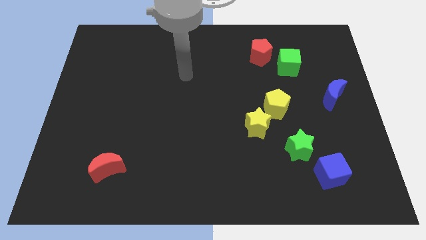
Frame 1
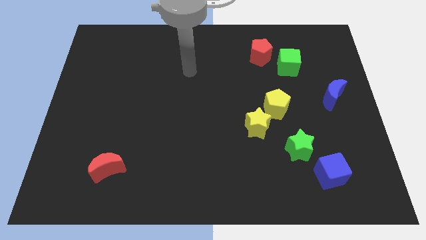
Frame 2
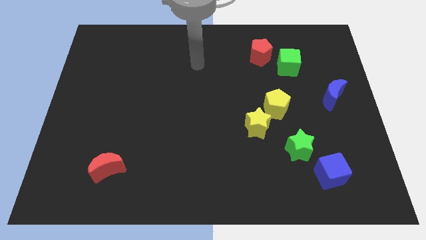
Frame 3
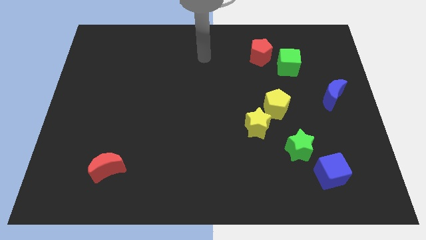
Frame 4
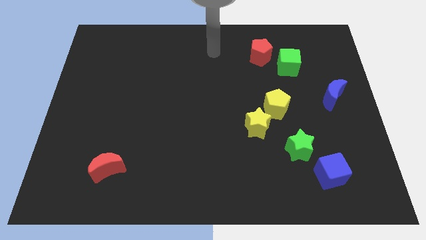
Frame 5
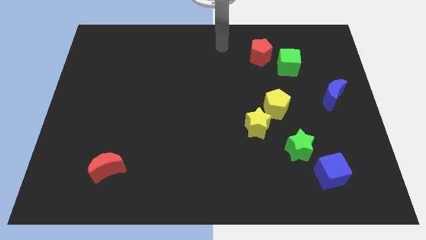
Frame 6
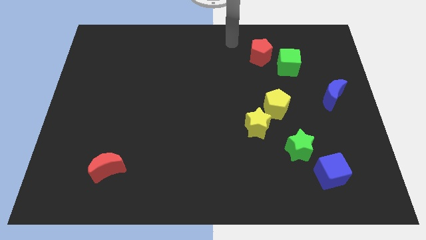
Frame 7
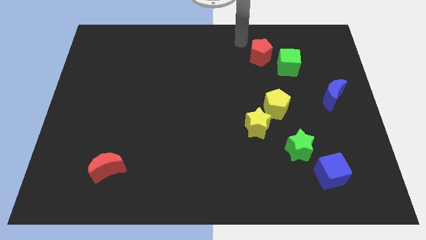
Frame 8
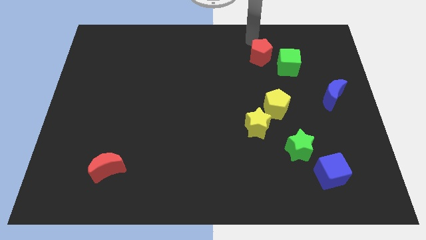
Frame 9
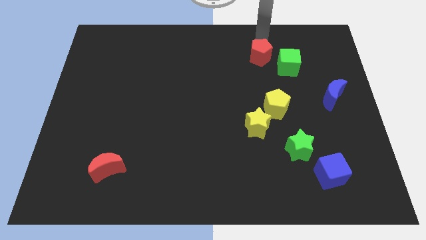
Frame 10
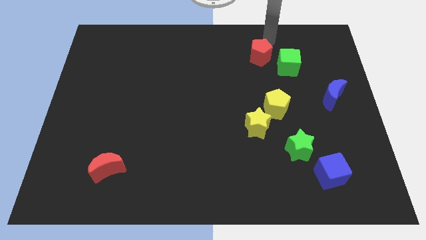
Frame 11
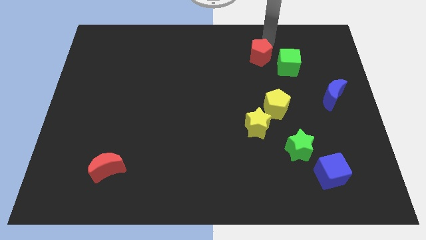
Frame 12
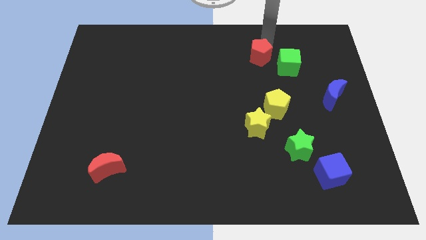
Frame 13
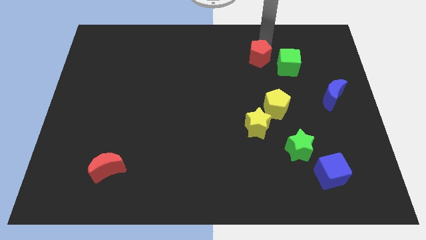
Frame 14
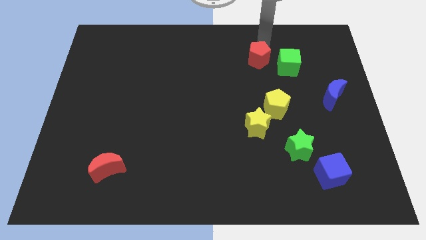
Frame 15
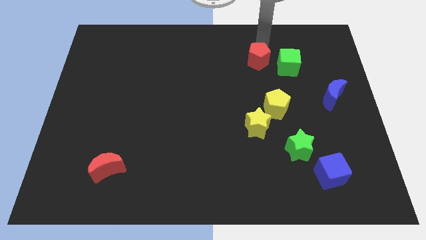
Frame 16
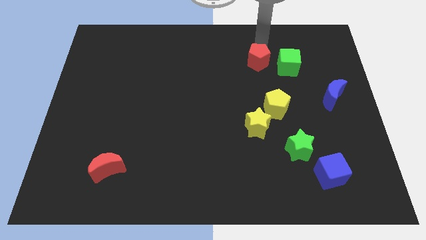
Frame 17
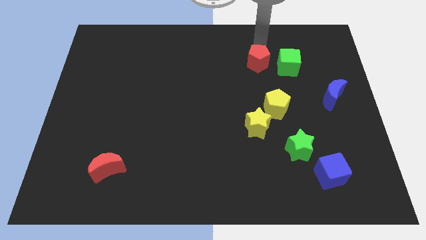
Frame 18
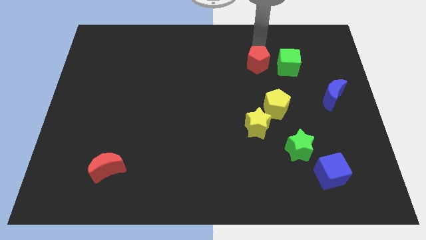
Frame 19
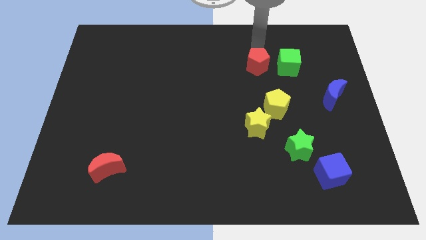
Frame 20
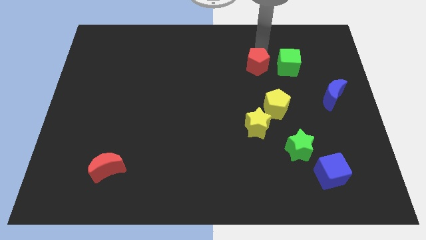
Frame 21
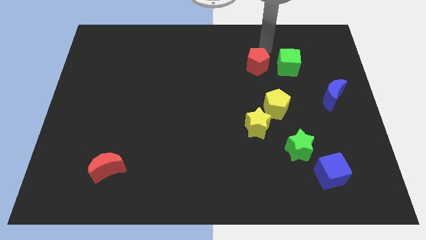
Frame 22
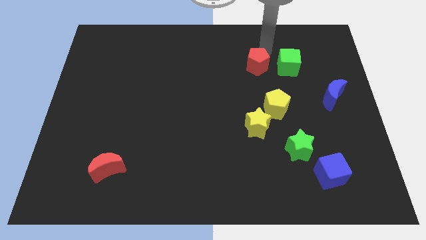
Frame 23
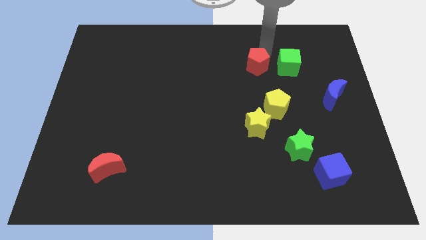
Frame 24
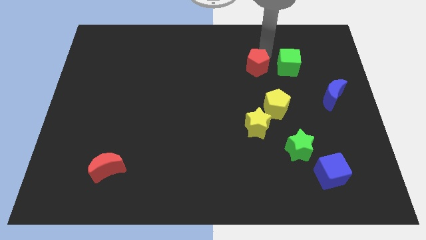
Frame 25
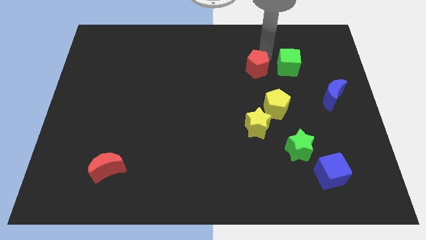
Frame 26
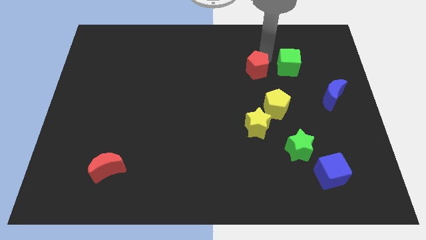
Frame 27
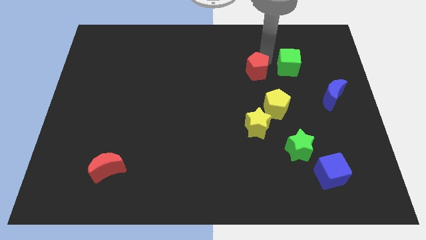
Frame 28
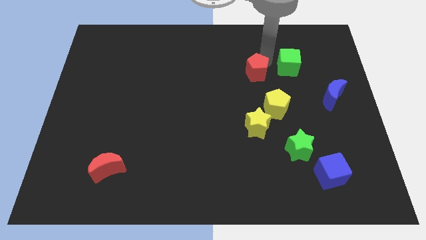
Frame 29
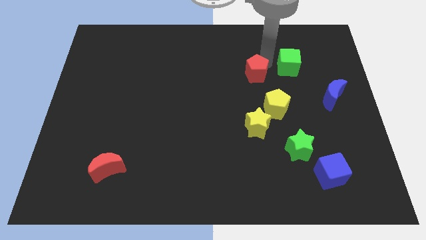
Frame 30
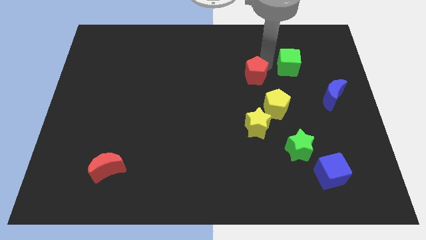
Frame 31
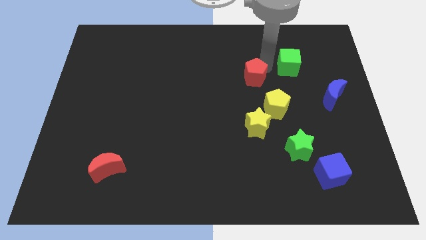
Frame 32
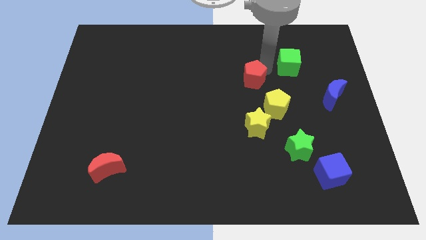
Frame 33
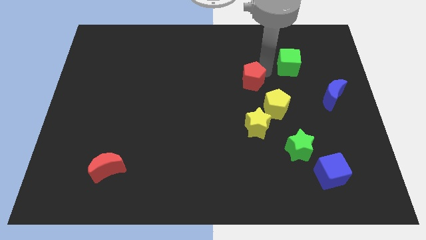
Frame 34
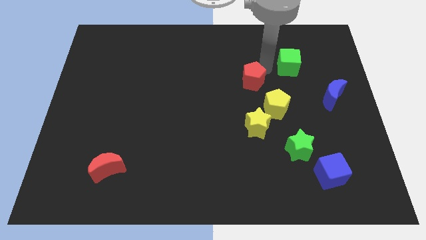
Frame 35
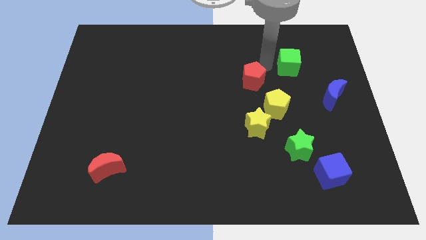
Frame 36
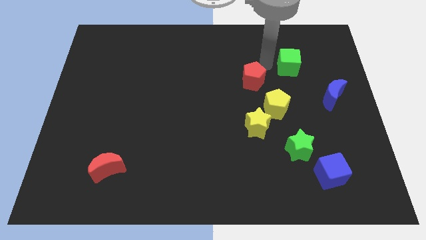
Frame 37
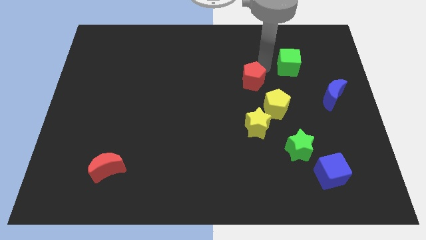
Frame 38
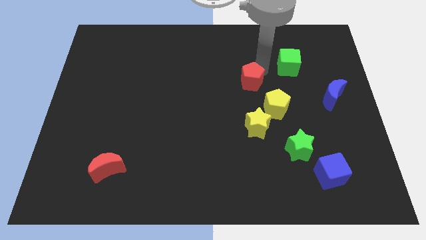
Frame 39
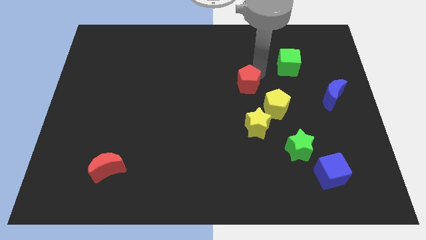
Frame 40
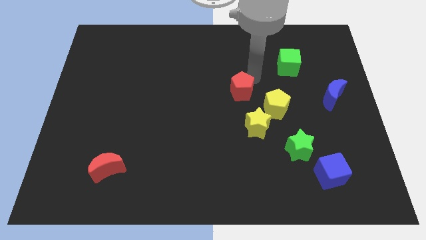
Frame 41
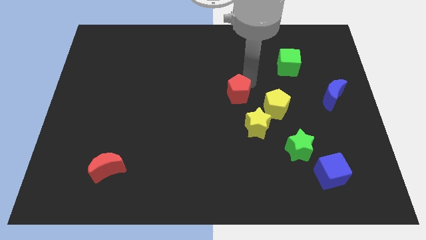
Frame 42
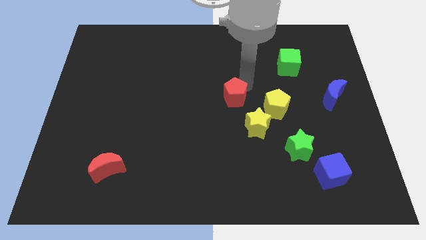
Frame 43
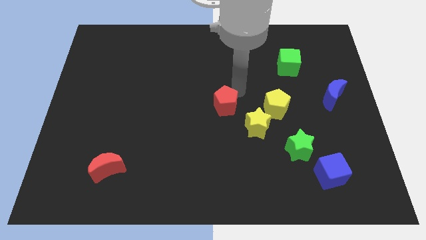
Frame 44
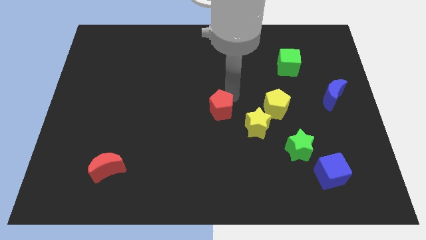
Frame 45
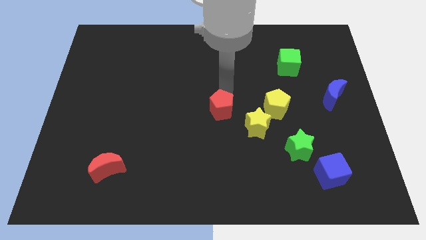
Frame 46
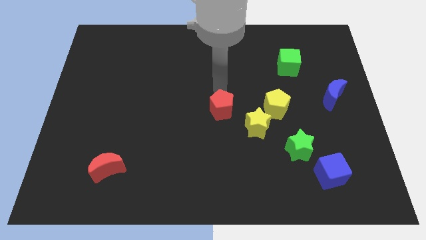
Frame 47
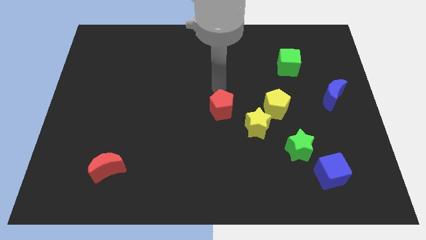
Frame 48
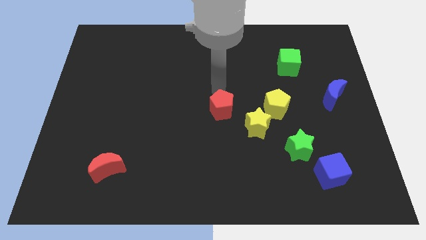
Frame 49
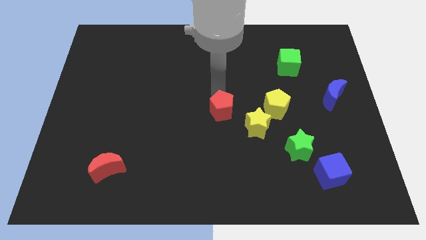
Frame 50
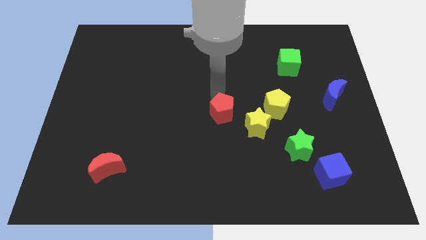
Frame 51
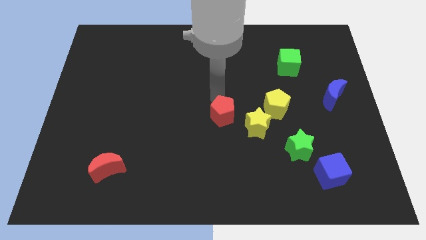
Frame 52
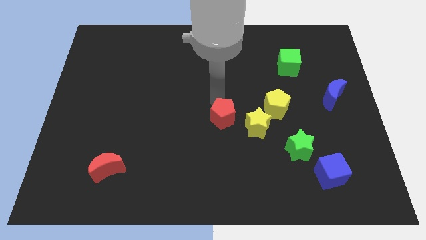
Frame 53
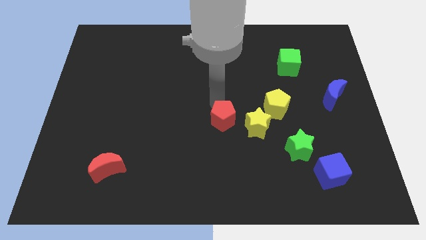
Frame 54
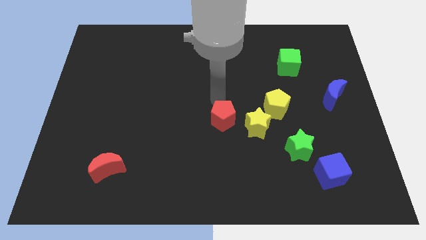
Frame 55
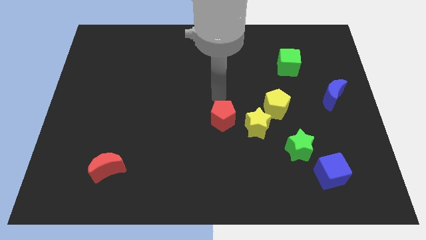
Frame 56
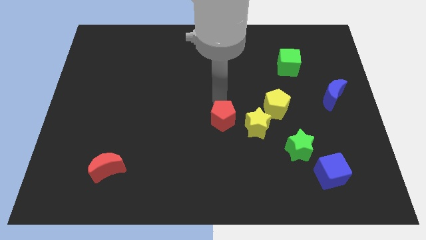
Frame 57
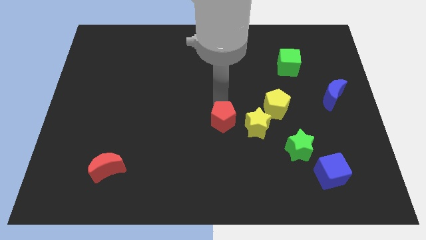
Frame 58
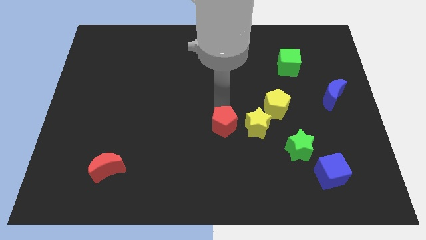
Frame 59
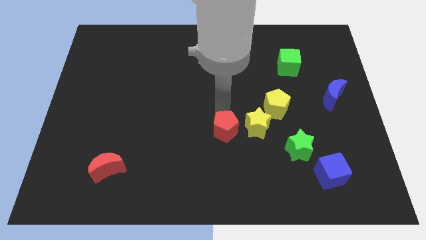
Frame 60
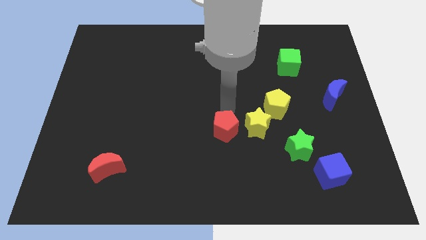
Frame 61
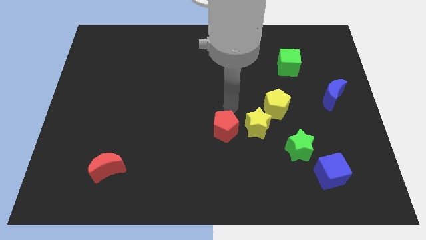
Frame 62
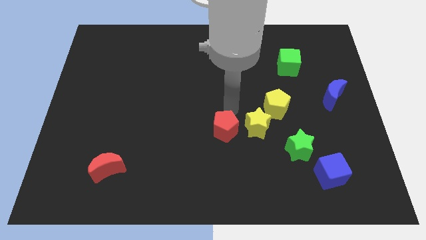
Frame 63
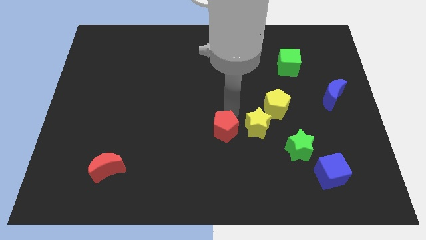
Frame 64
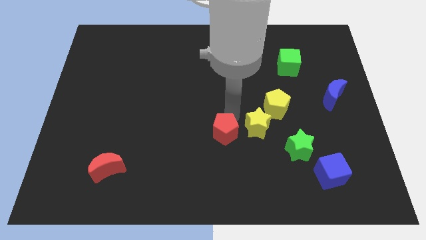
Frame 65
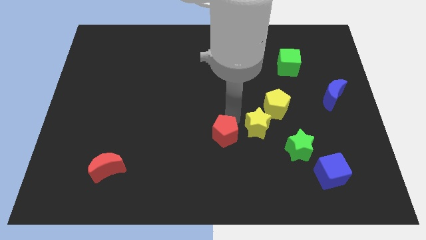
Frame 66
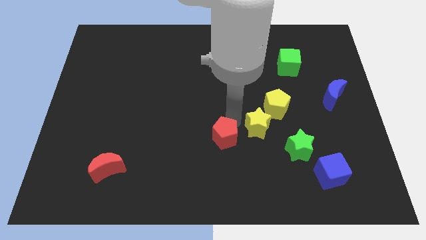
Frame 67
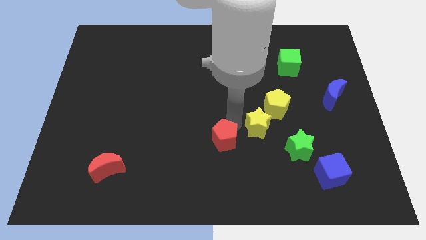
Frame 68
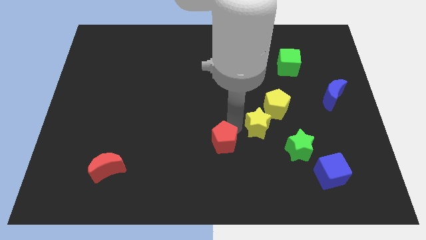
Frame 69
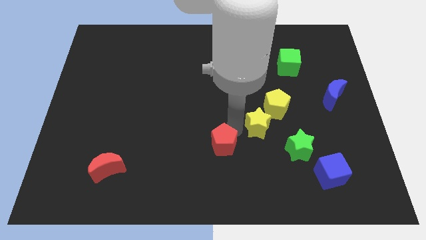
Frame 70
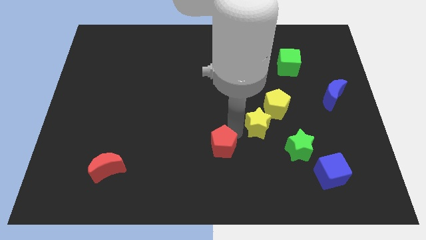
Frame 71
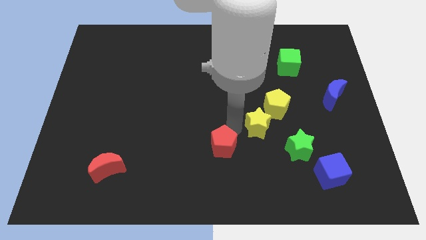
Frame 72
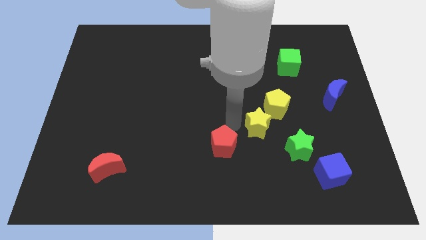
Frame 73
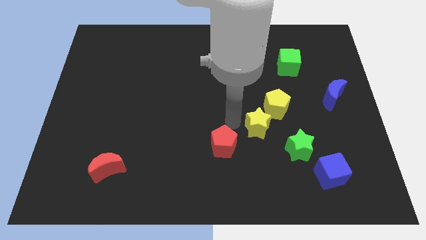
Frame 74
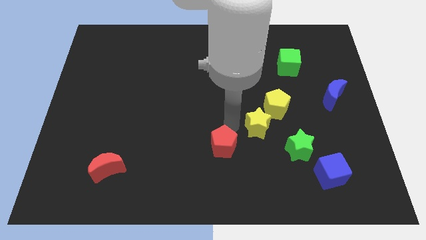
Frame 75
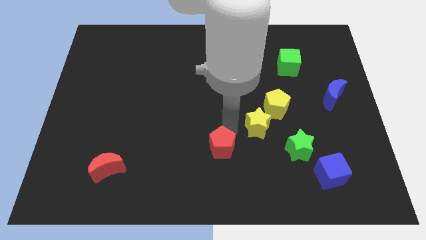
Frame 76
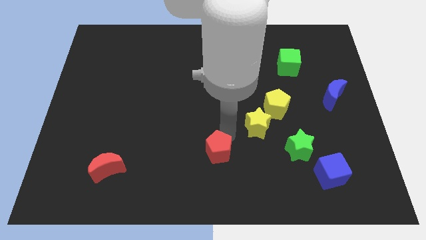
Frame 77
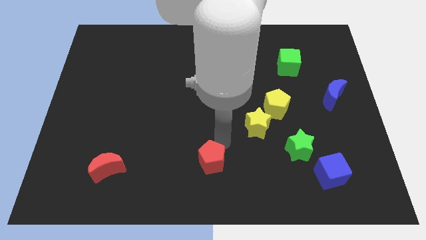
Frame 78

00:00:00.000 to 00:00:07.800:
move the red pentagon to the bottom side
